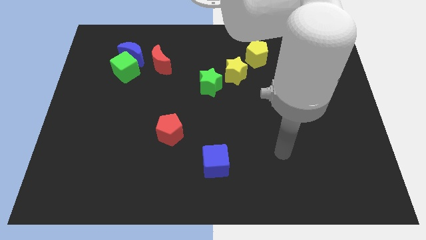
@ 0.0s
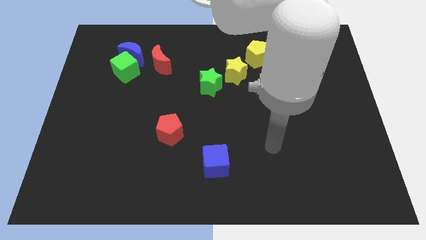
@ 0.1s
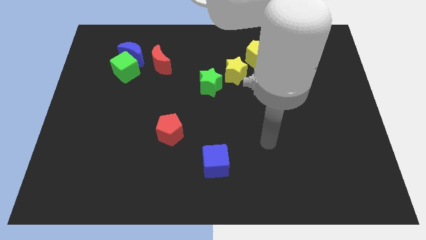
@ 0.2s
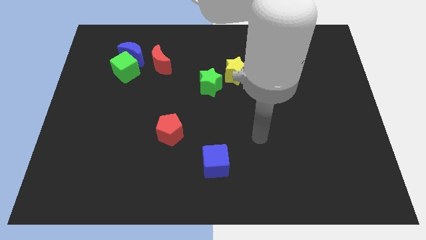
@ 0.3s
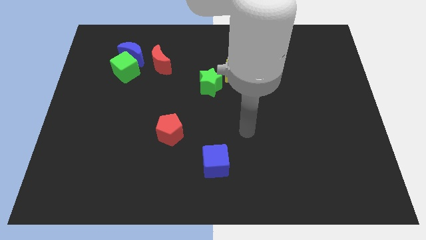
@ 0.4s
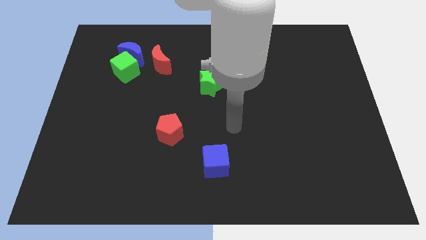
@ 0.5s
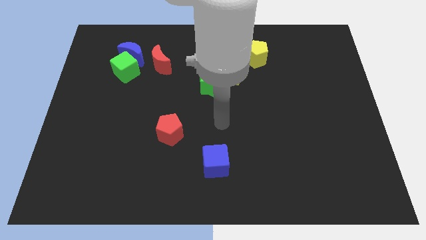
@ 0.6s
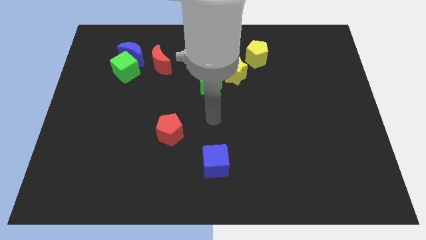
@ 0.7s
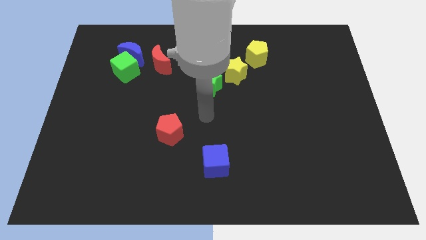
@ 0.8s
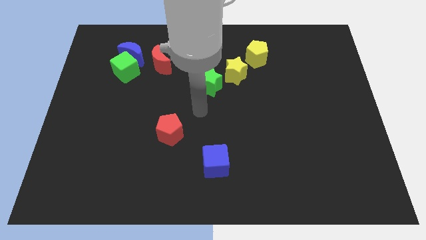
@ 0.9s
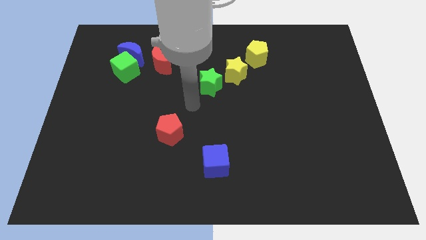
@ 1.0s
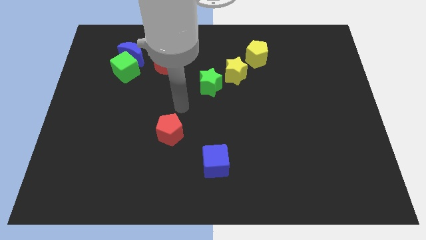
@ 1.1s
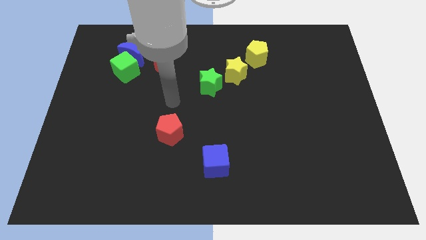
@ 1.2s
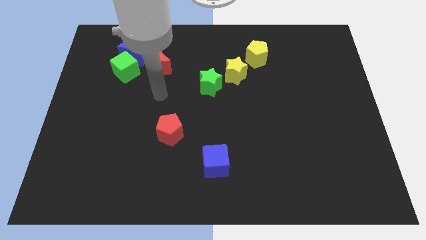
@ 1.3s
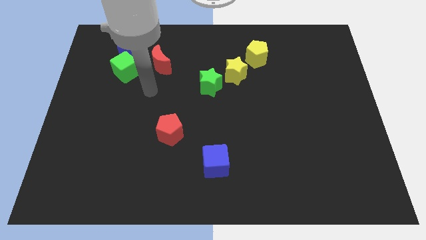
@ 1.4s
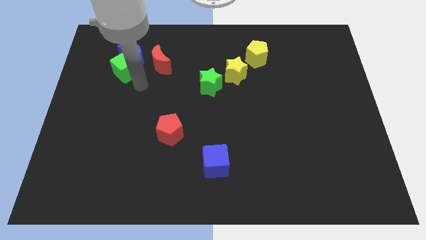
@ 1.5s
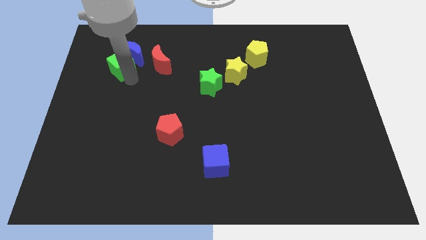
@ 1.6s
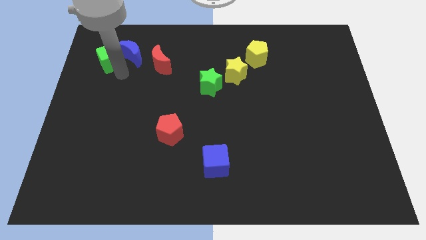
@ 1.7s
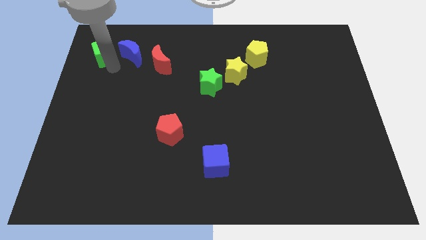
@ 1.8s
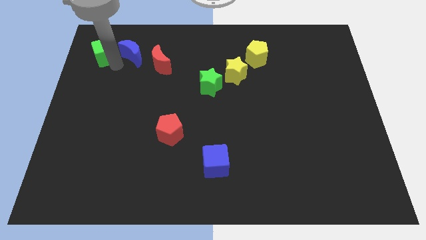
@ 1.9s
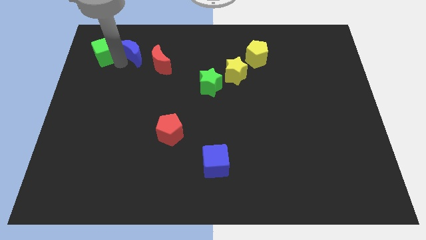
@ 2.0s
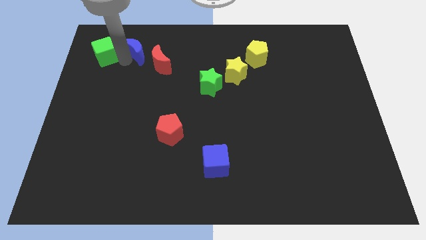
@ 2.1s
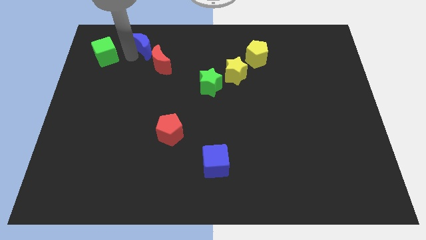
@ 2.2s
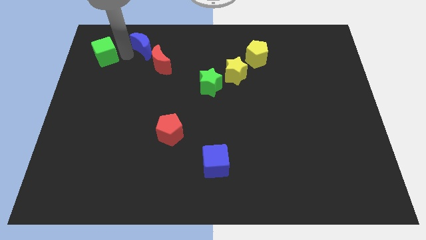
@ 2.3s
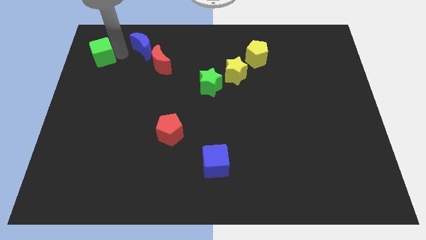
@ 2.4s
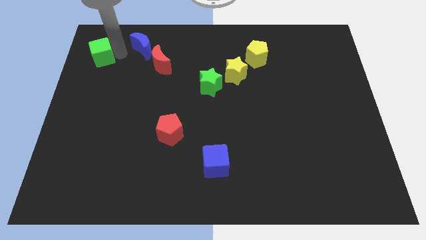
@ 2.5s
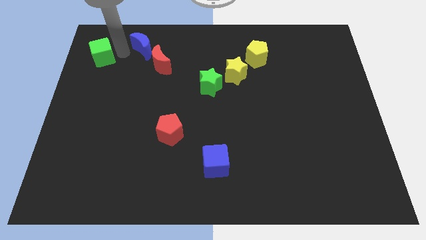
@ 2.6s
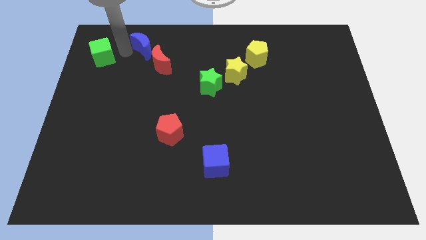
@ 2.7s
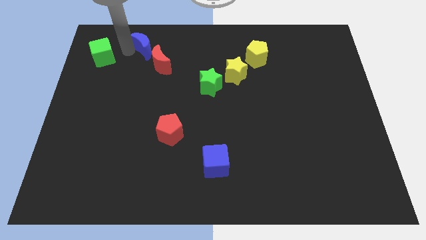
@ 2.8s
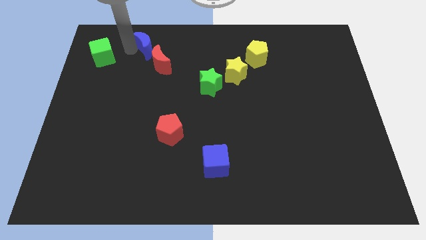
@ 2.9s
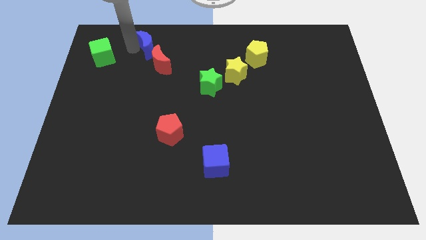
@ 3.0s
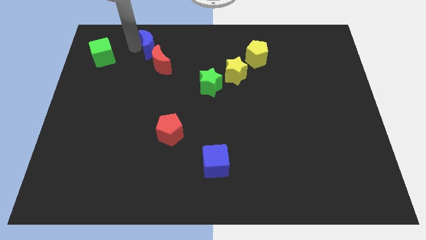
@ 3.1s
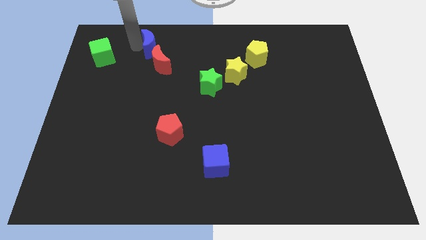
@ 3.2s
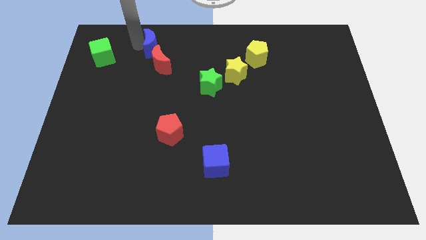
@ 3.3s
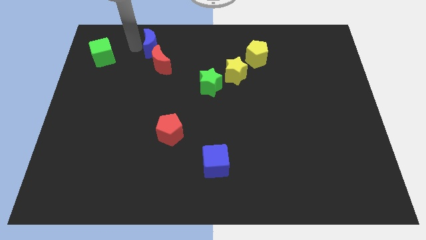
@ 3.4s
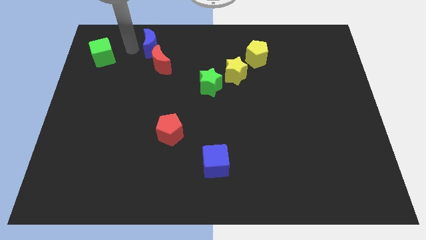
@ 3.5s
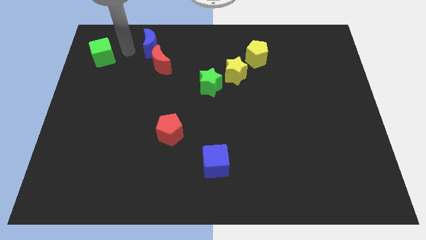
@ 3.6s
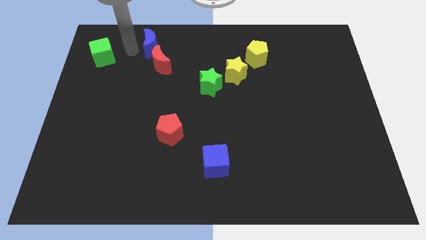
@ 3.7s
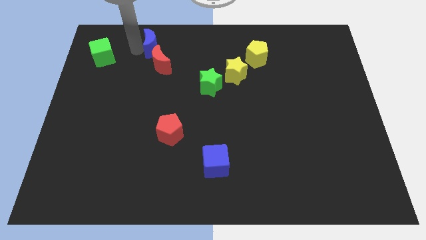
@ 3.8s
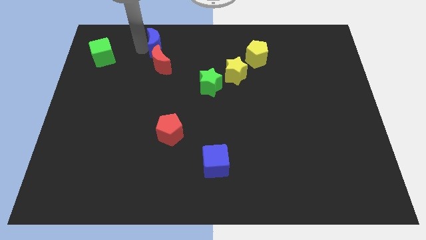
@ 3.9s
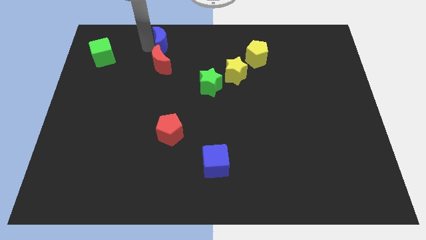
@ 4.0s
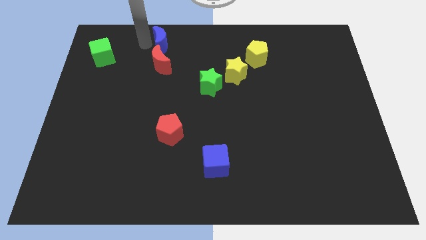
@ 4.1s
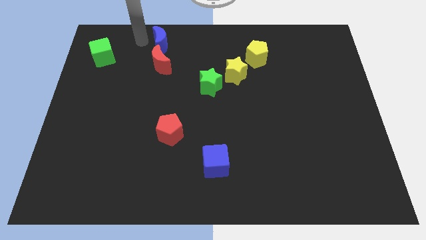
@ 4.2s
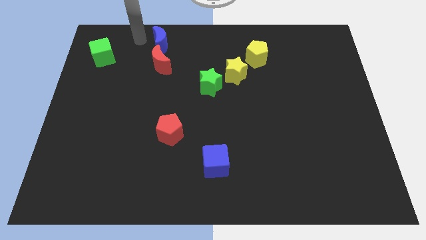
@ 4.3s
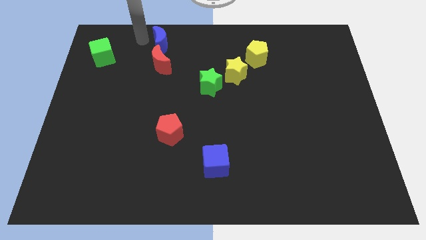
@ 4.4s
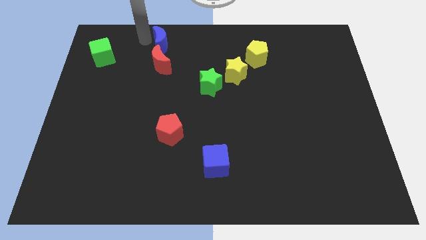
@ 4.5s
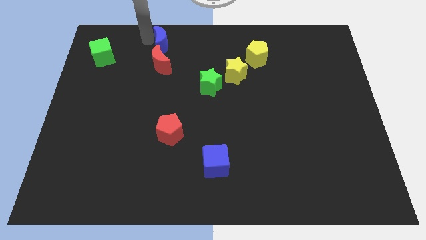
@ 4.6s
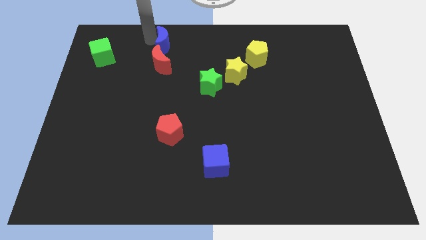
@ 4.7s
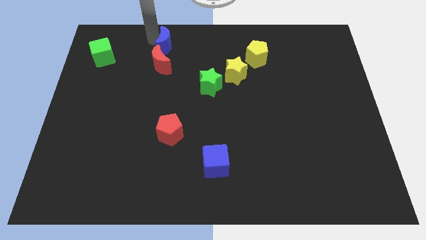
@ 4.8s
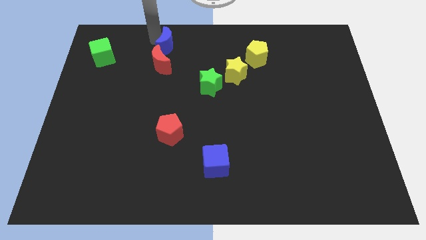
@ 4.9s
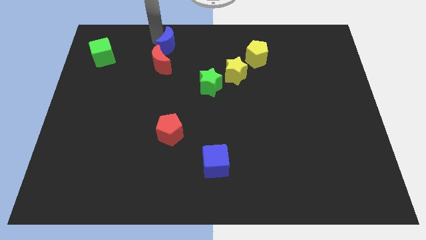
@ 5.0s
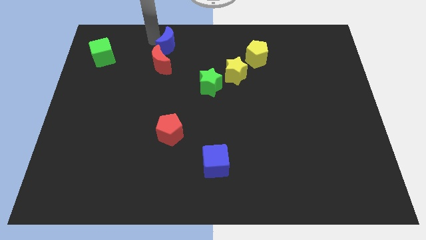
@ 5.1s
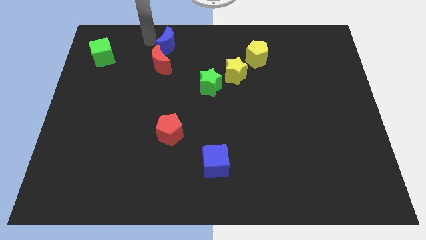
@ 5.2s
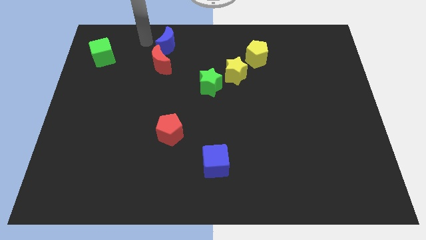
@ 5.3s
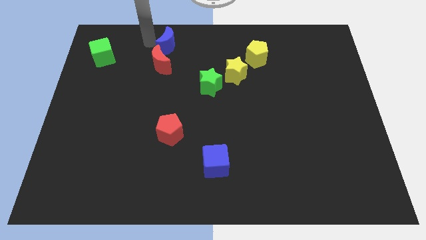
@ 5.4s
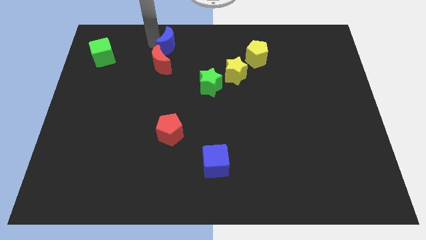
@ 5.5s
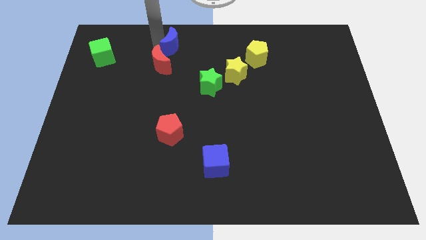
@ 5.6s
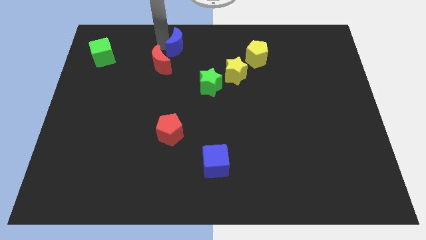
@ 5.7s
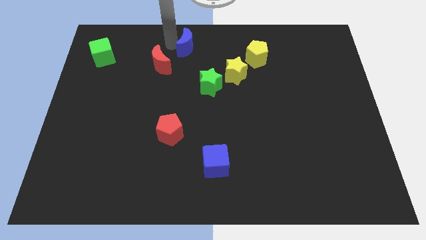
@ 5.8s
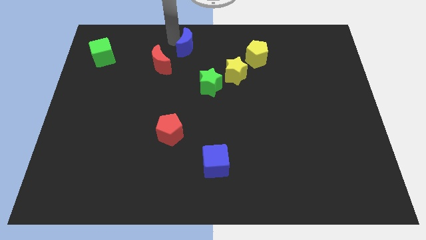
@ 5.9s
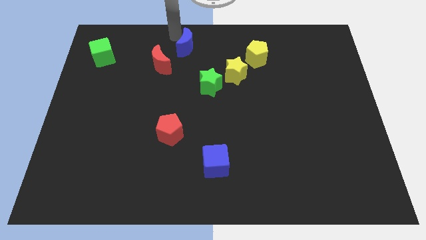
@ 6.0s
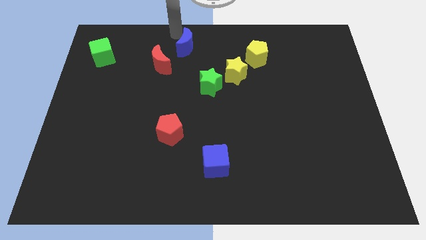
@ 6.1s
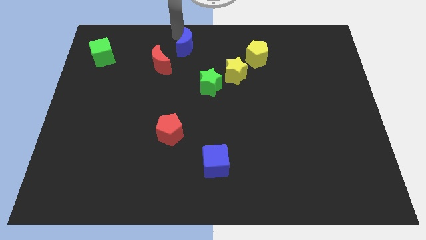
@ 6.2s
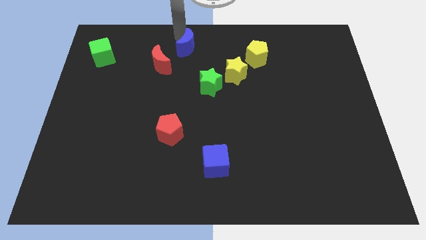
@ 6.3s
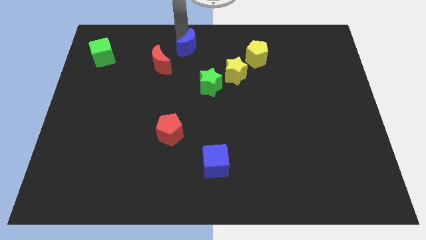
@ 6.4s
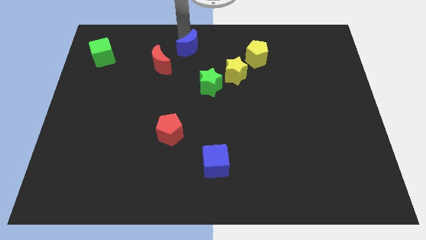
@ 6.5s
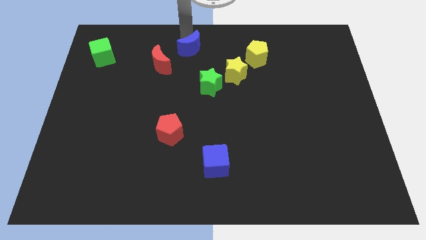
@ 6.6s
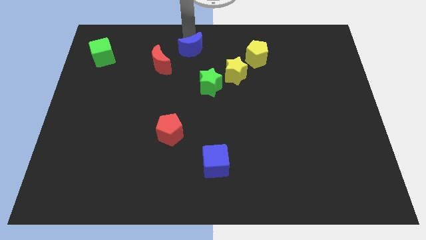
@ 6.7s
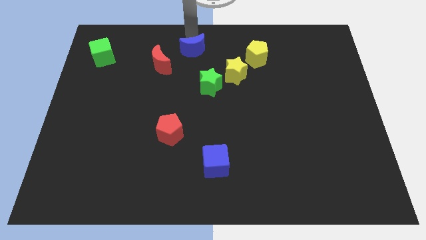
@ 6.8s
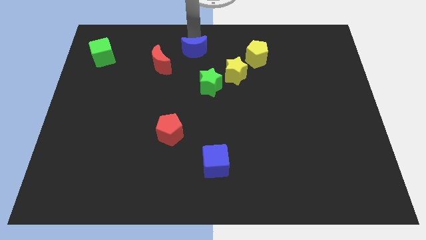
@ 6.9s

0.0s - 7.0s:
move the blue moon right of the red moon
